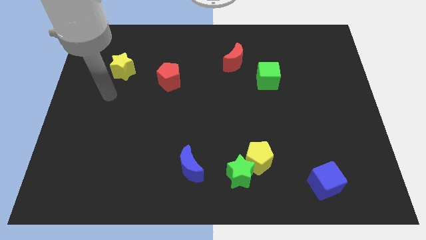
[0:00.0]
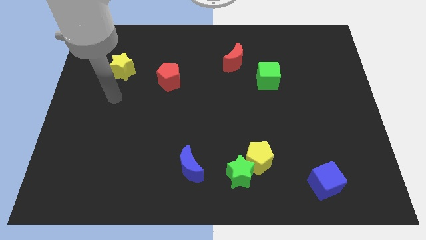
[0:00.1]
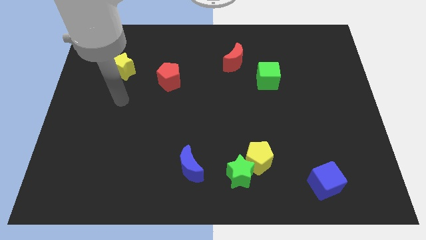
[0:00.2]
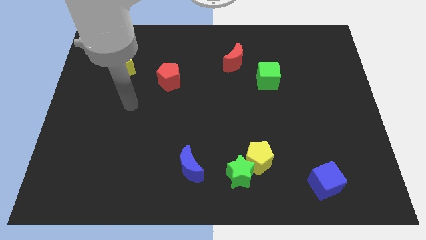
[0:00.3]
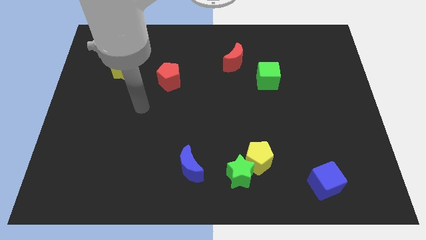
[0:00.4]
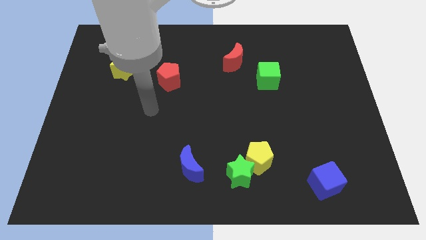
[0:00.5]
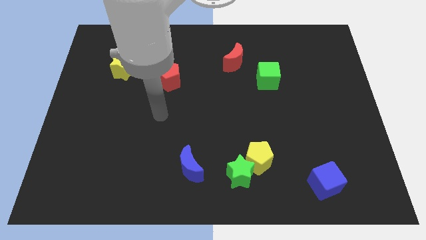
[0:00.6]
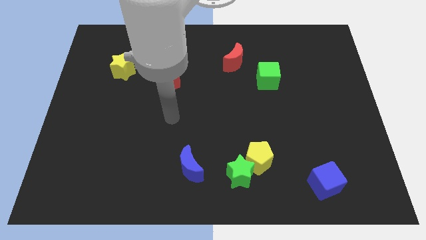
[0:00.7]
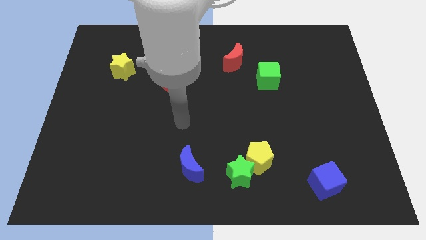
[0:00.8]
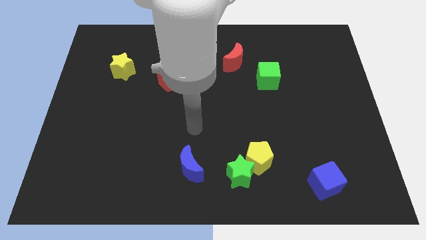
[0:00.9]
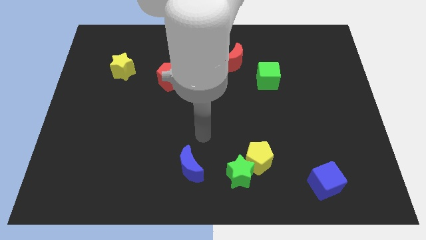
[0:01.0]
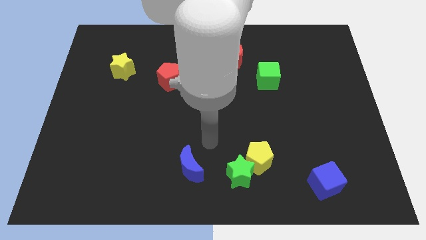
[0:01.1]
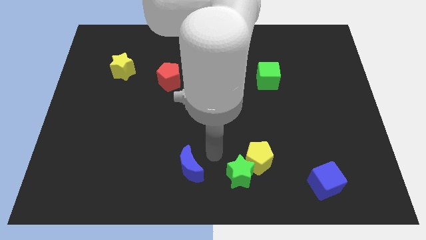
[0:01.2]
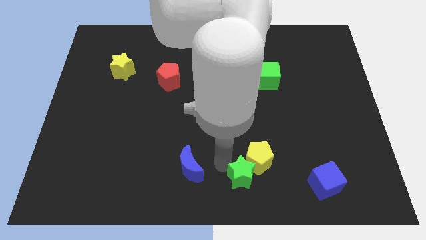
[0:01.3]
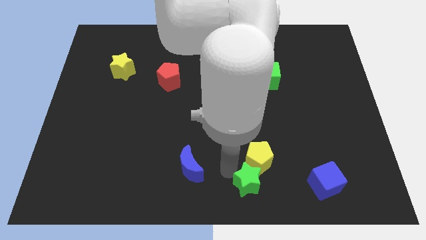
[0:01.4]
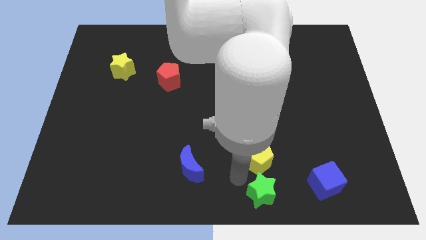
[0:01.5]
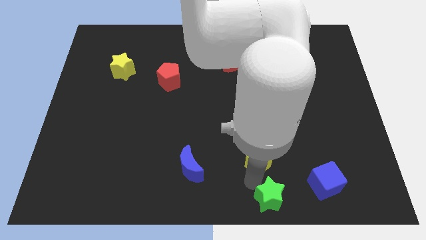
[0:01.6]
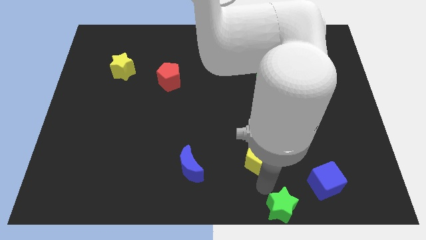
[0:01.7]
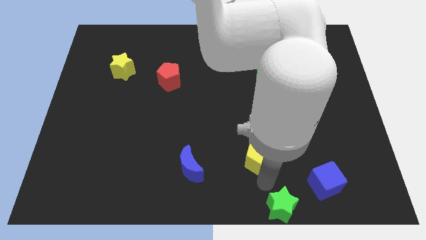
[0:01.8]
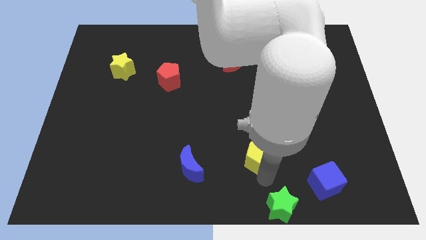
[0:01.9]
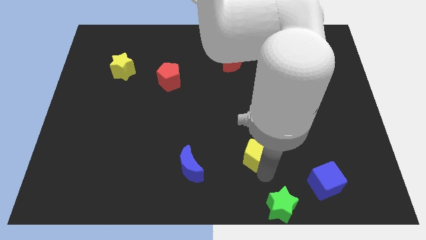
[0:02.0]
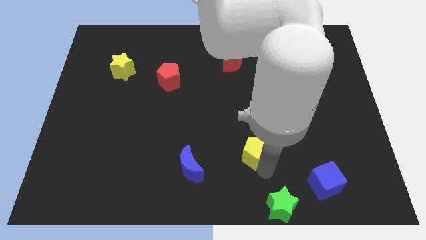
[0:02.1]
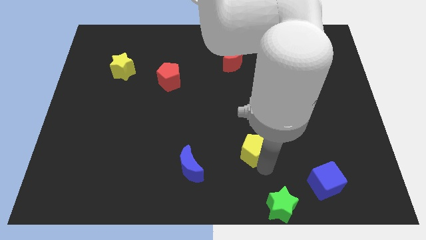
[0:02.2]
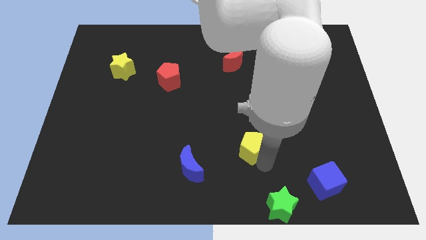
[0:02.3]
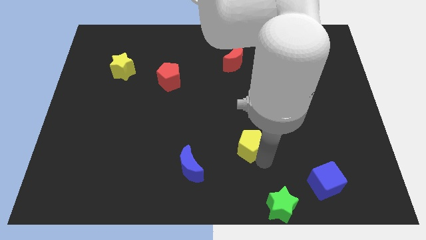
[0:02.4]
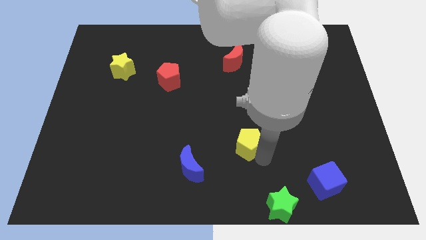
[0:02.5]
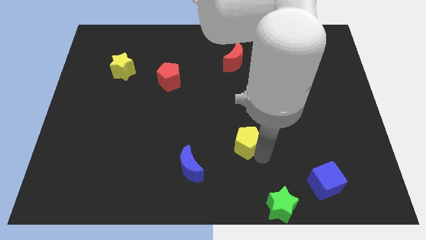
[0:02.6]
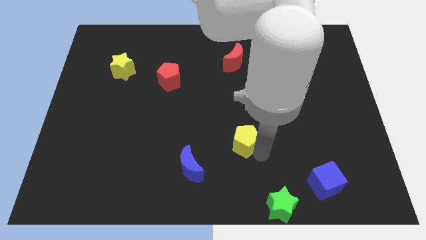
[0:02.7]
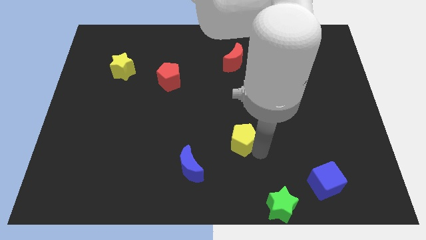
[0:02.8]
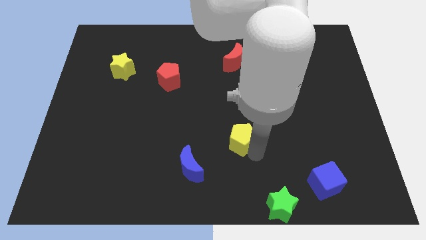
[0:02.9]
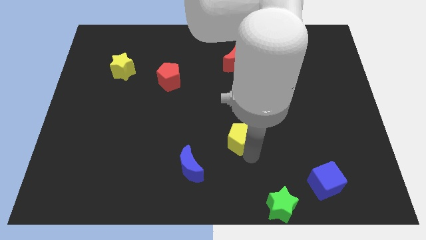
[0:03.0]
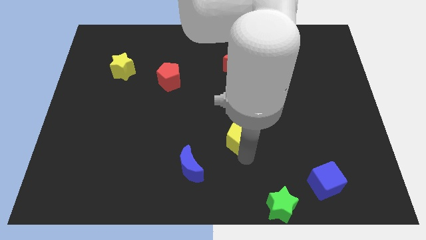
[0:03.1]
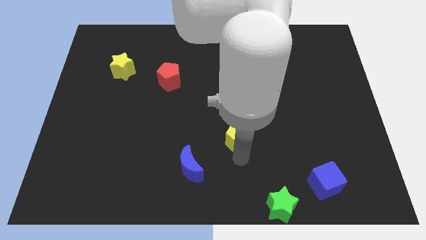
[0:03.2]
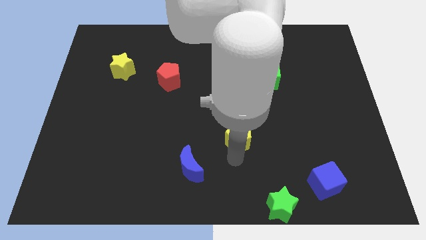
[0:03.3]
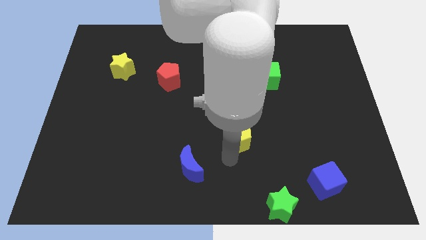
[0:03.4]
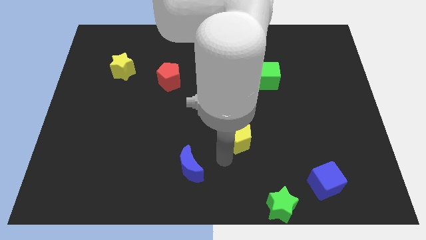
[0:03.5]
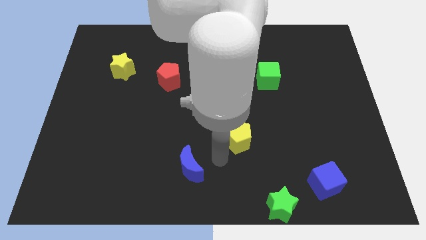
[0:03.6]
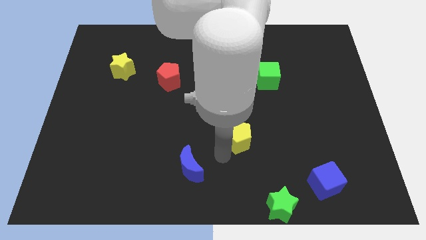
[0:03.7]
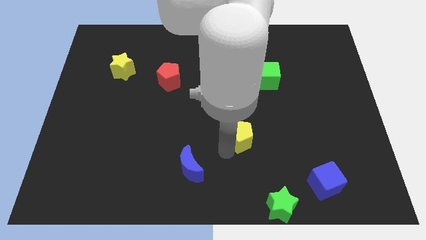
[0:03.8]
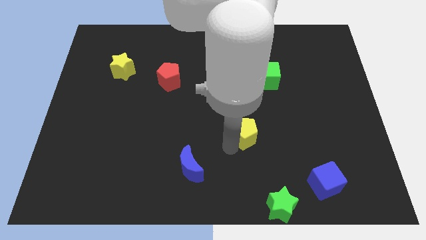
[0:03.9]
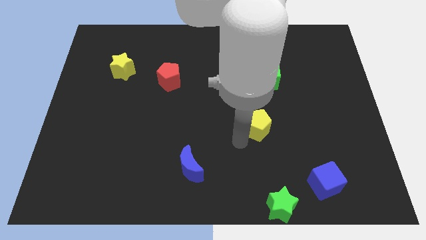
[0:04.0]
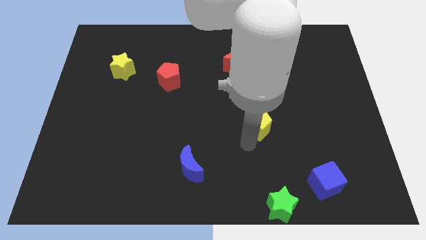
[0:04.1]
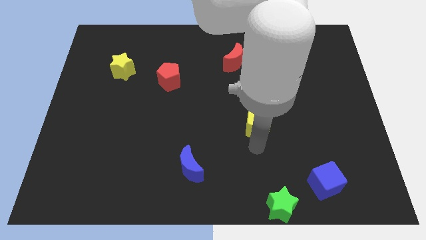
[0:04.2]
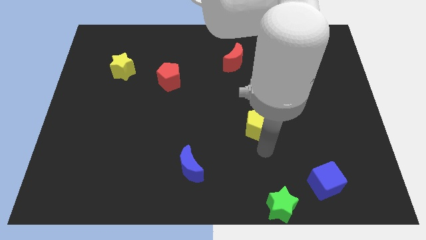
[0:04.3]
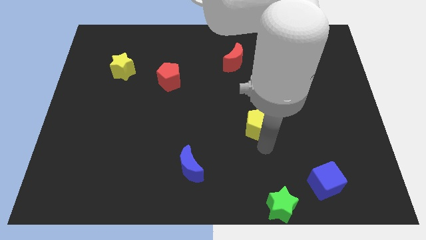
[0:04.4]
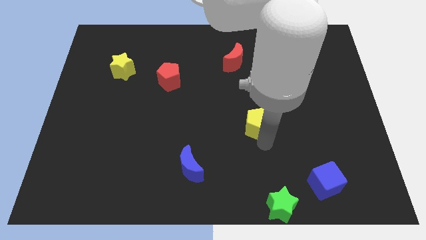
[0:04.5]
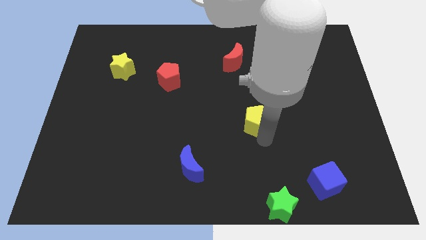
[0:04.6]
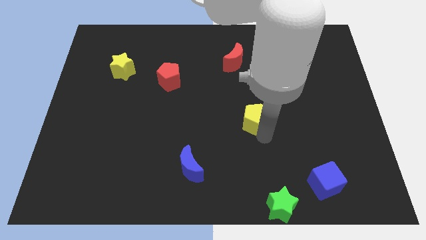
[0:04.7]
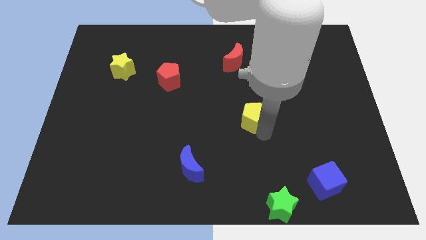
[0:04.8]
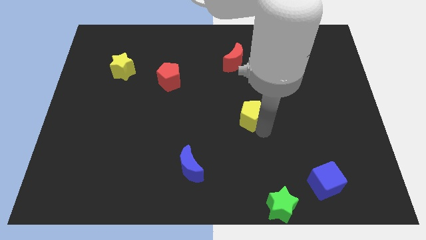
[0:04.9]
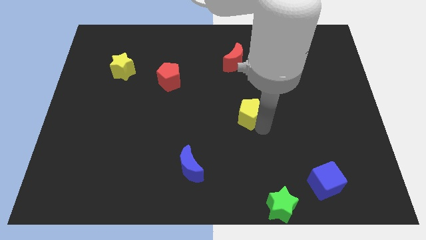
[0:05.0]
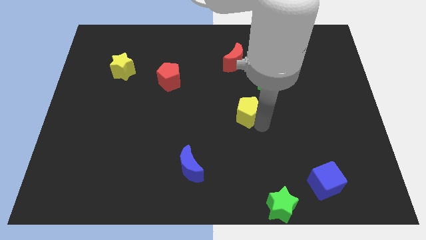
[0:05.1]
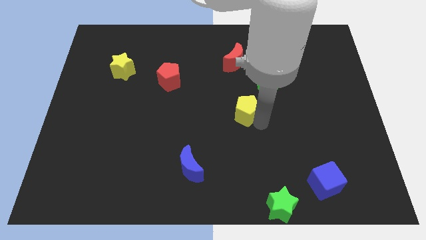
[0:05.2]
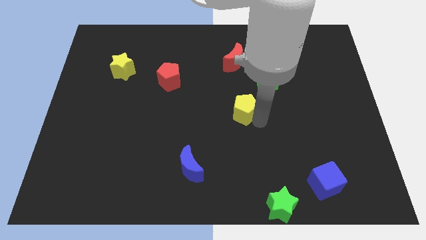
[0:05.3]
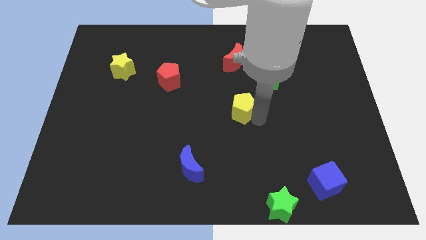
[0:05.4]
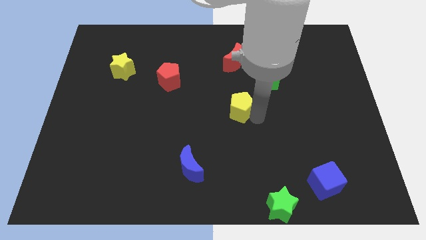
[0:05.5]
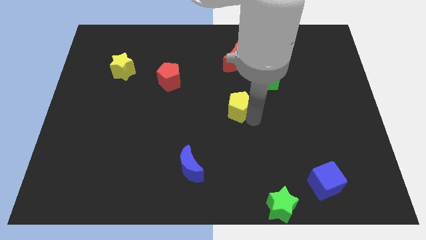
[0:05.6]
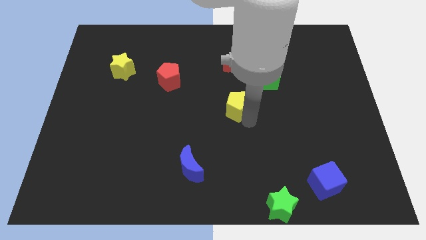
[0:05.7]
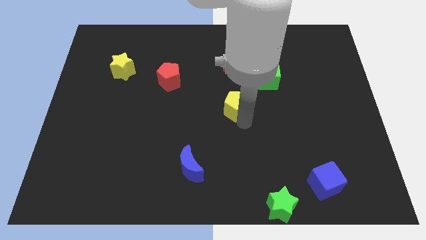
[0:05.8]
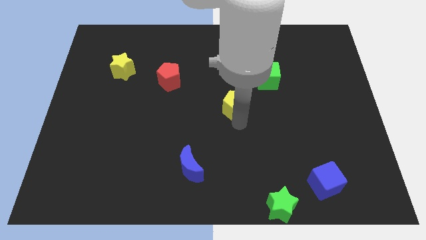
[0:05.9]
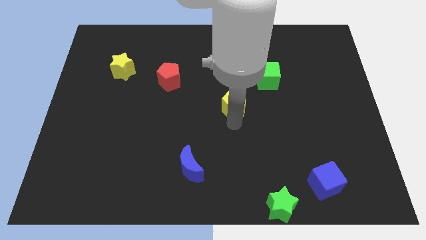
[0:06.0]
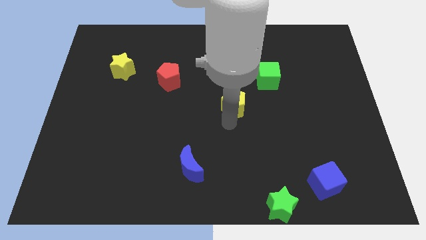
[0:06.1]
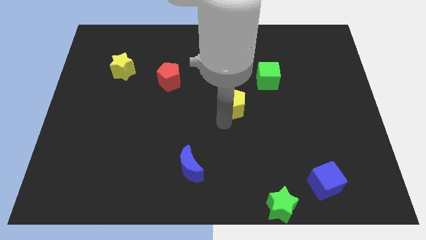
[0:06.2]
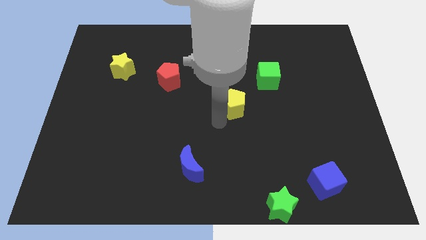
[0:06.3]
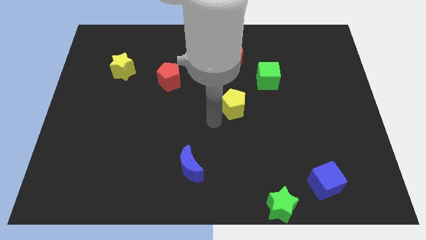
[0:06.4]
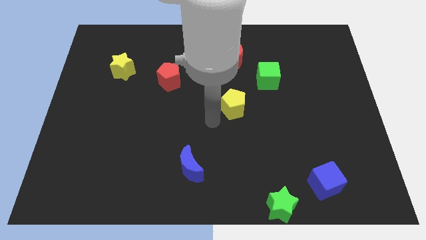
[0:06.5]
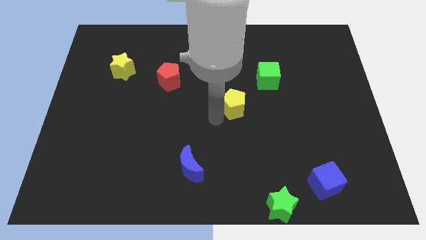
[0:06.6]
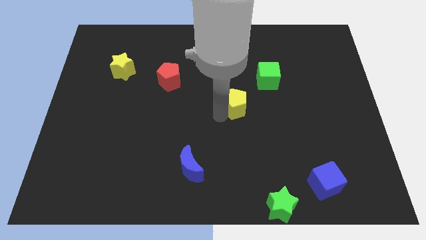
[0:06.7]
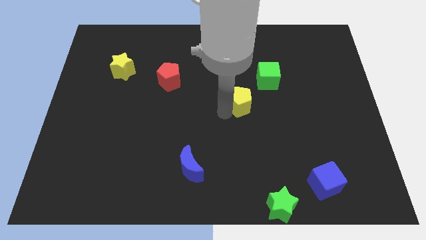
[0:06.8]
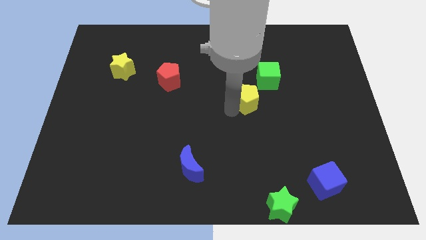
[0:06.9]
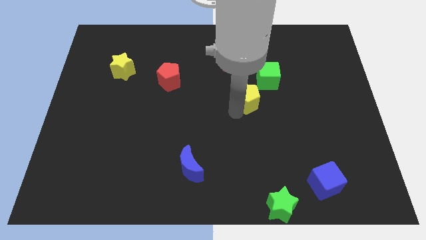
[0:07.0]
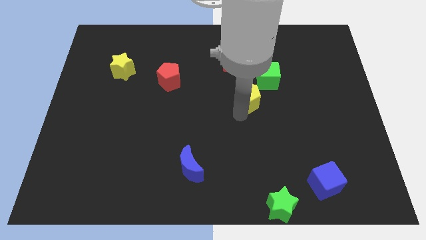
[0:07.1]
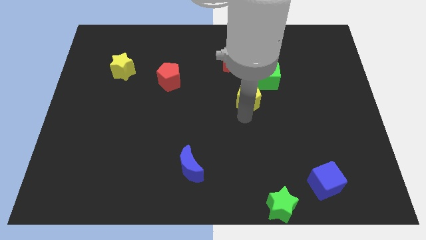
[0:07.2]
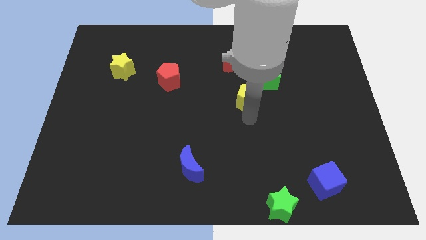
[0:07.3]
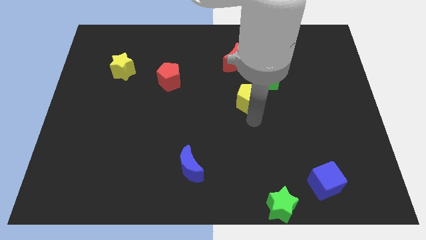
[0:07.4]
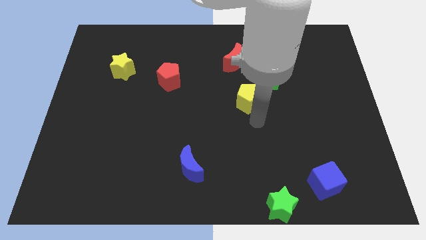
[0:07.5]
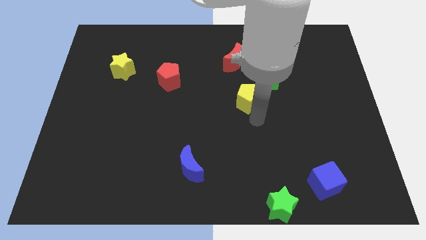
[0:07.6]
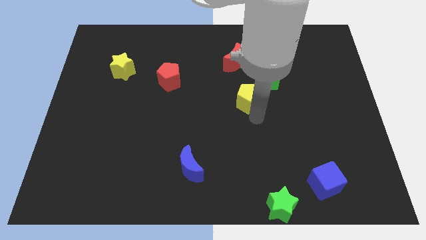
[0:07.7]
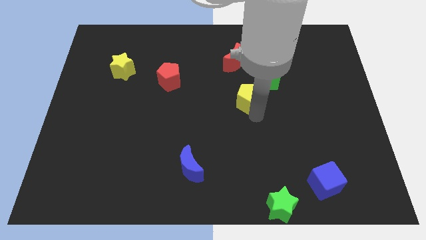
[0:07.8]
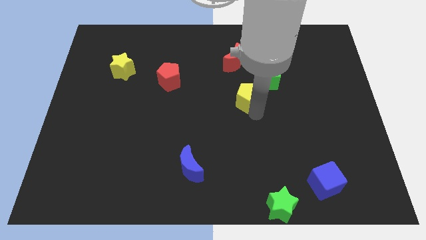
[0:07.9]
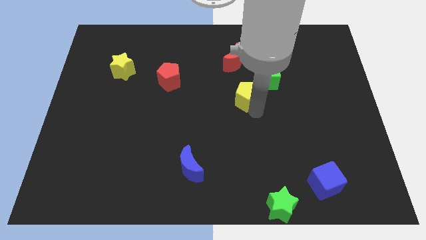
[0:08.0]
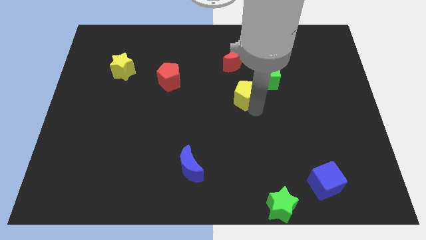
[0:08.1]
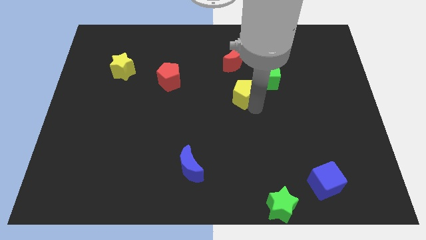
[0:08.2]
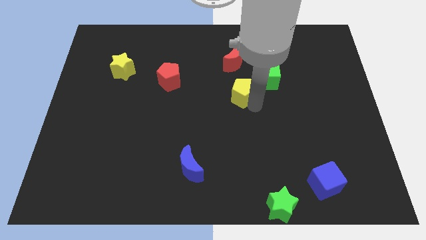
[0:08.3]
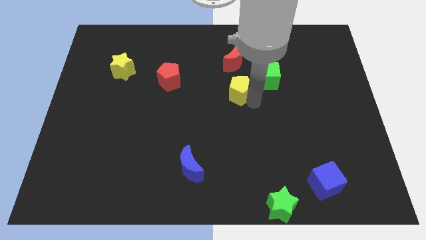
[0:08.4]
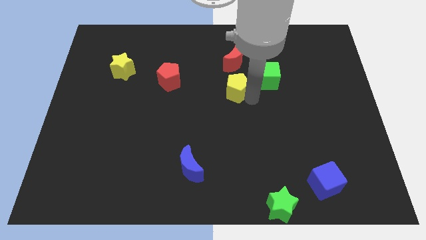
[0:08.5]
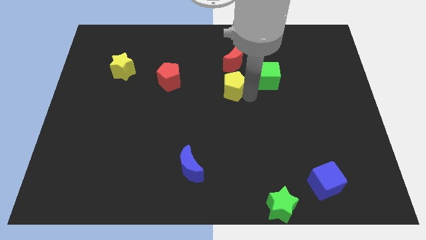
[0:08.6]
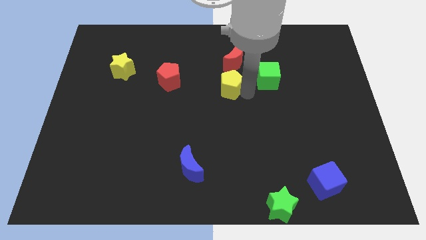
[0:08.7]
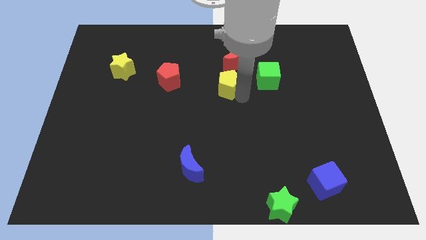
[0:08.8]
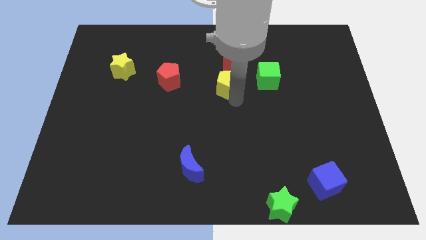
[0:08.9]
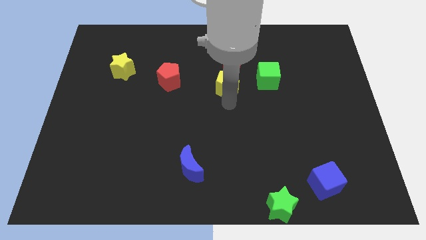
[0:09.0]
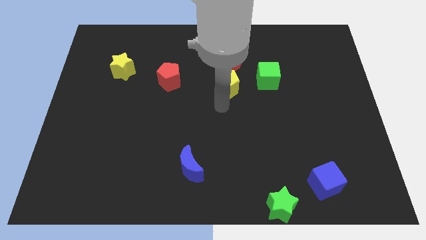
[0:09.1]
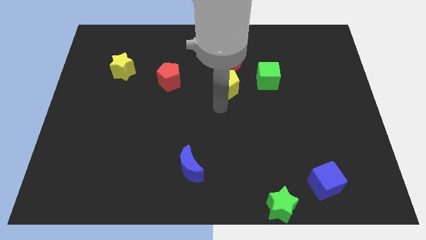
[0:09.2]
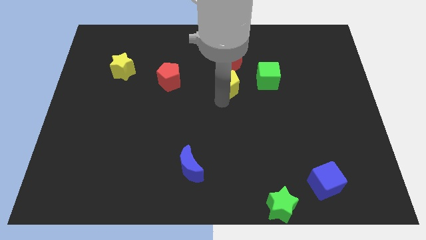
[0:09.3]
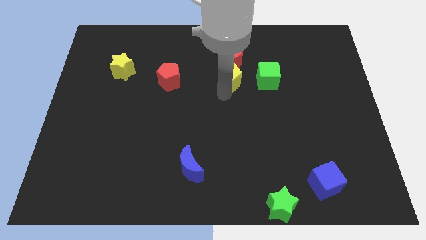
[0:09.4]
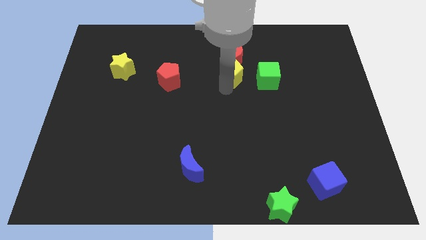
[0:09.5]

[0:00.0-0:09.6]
push the yellow pentagon close to the red moon
